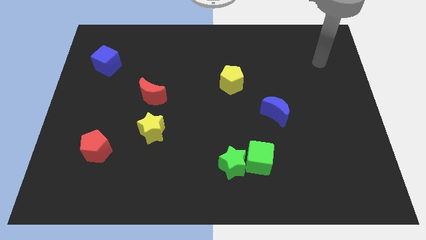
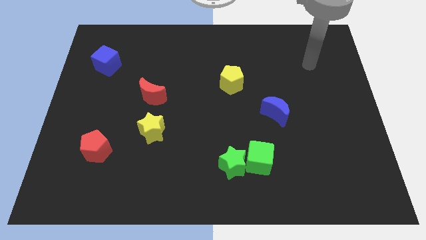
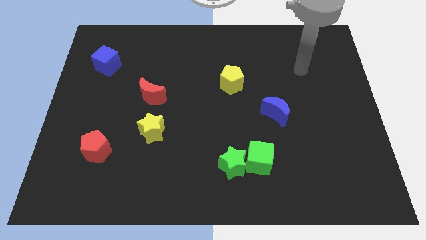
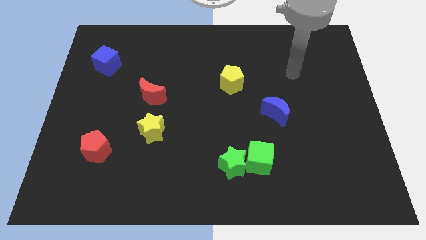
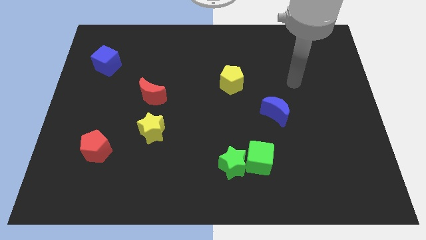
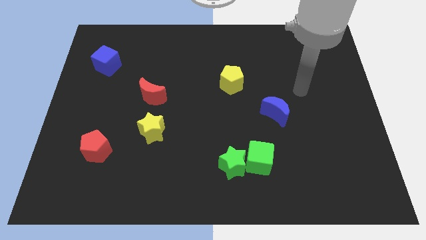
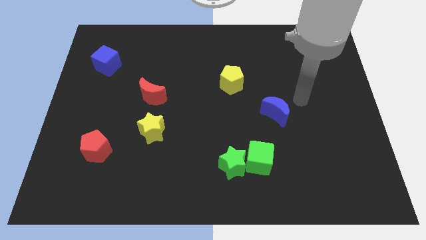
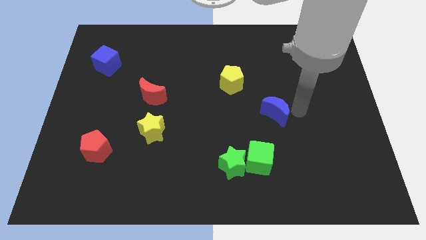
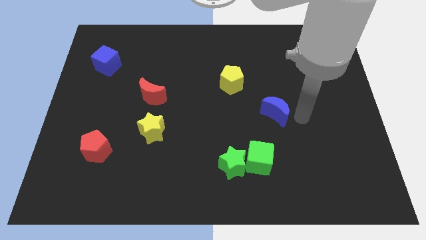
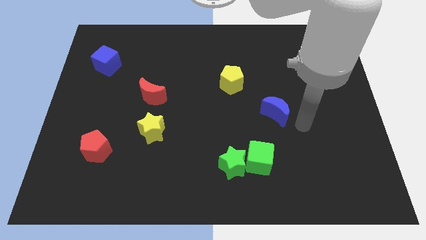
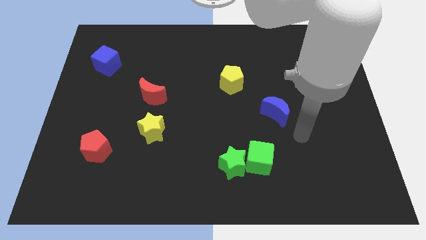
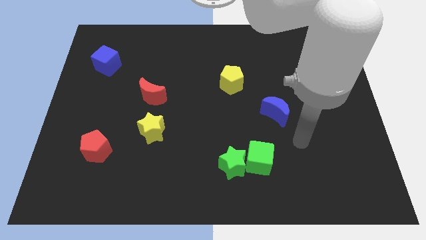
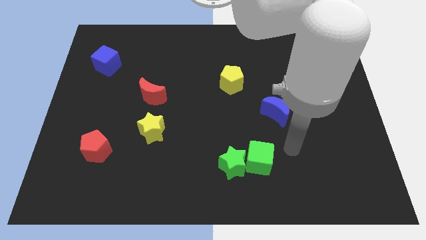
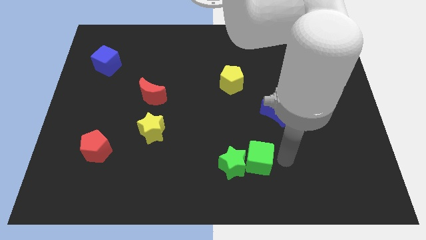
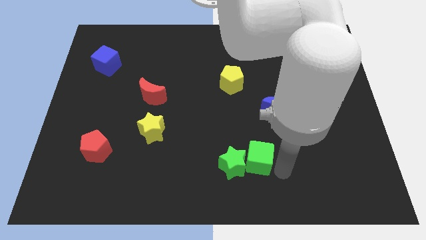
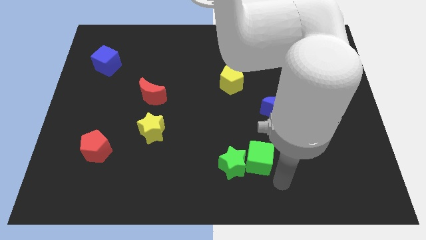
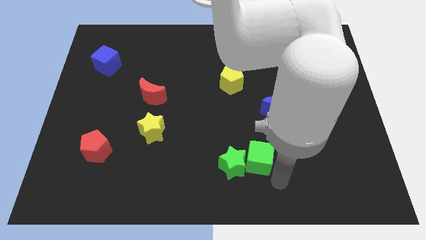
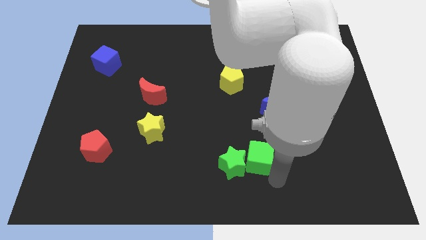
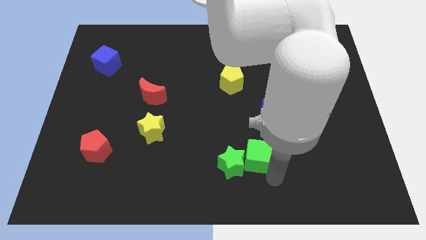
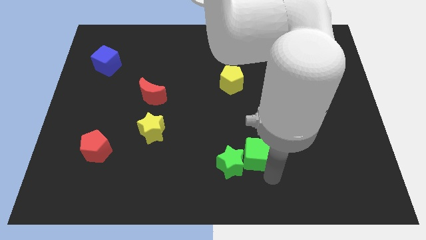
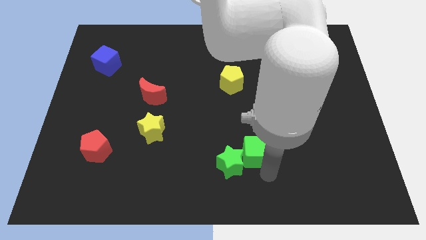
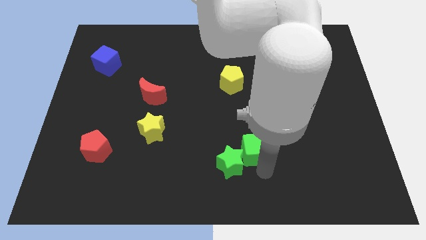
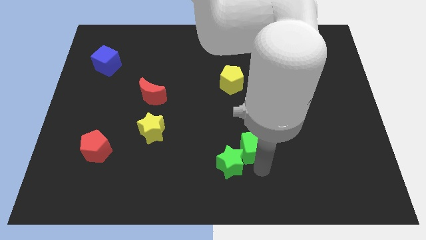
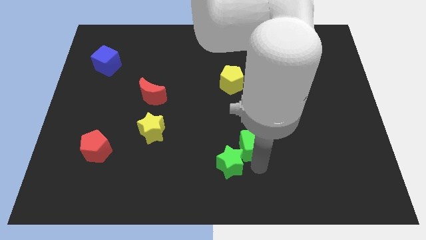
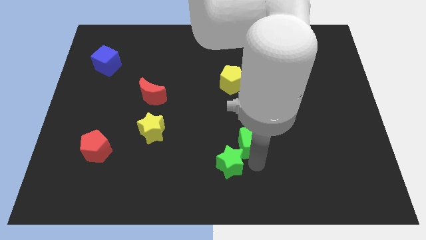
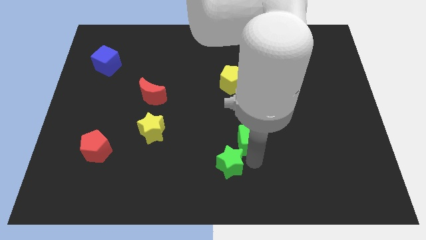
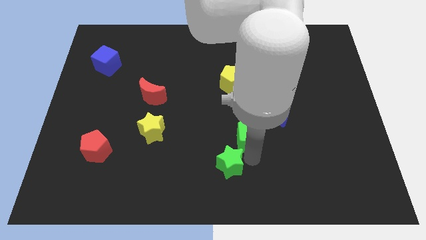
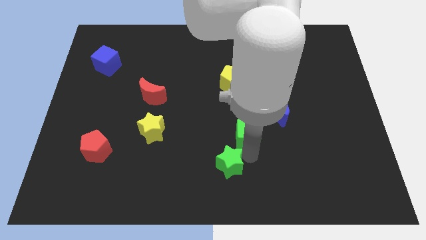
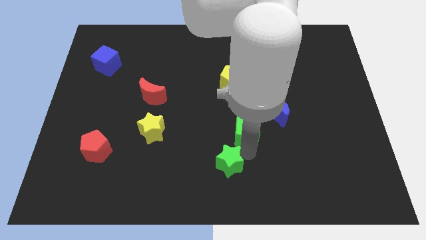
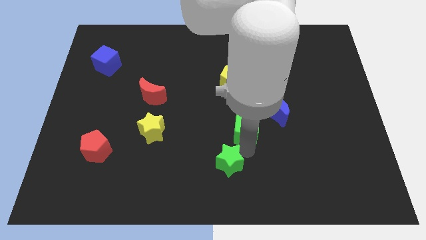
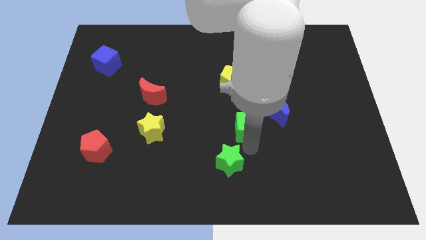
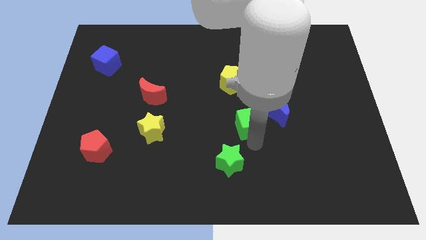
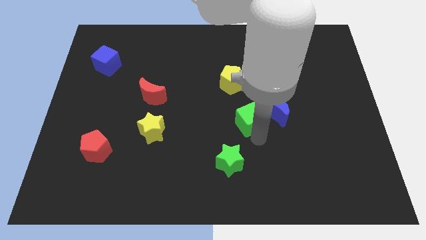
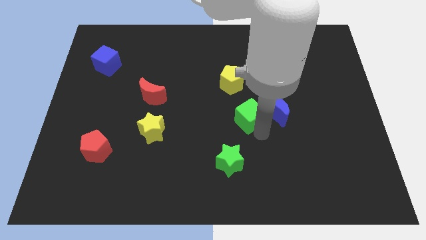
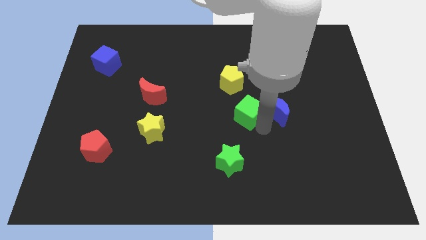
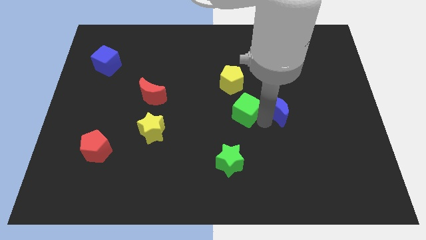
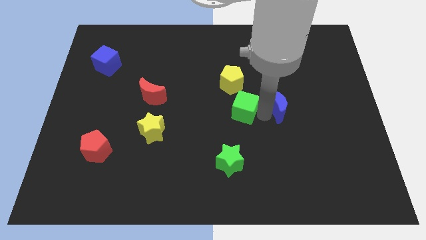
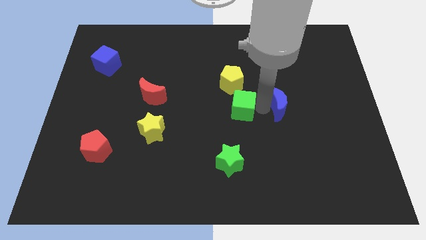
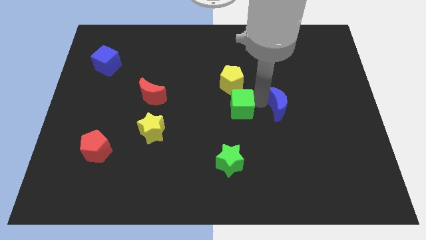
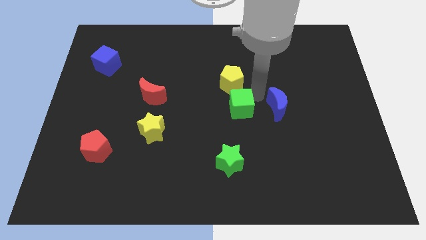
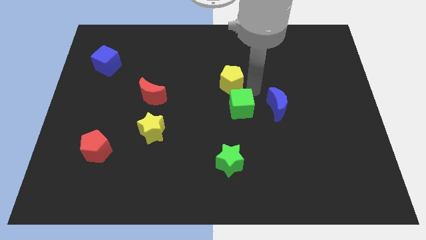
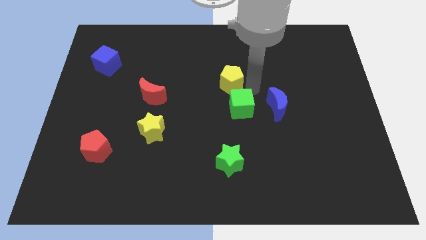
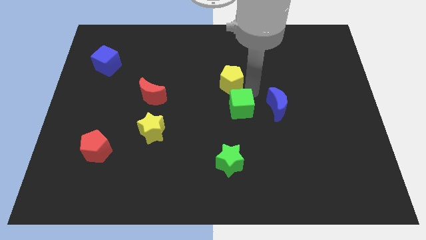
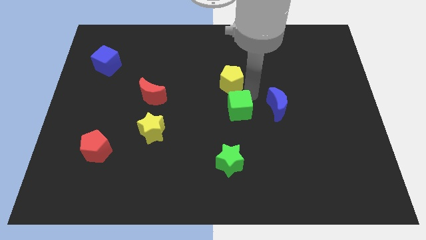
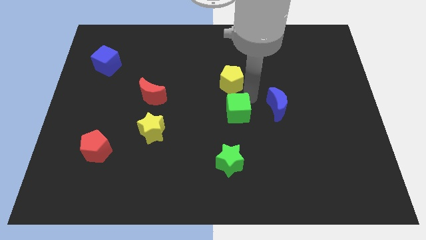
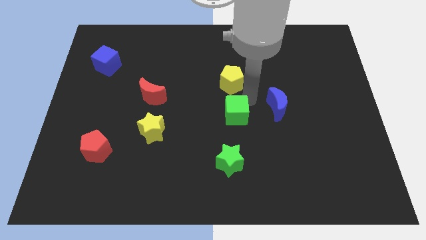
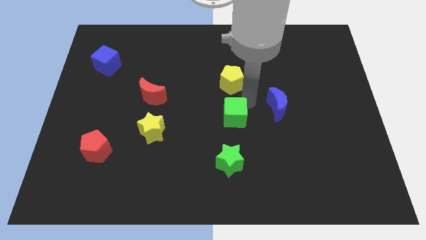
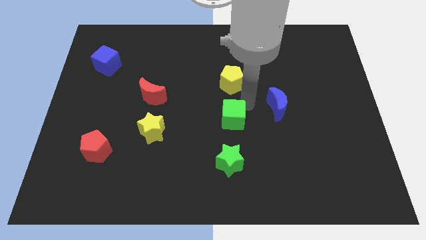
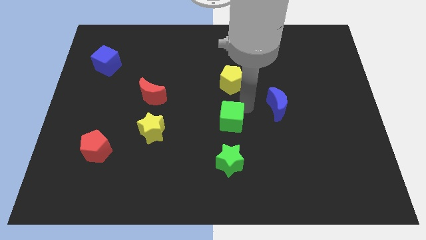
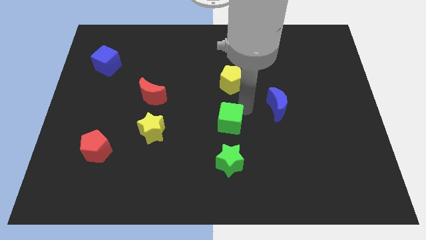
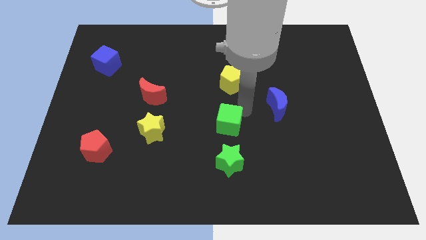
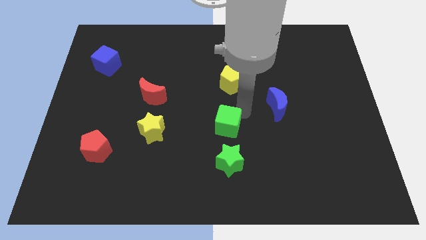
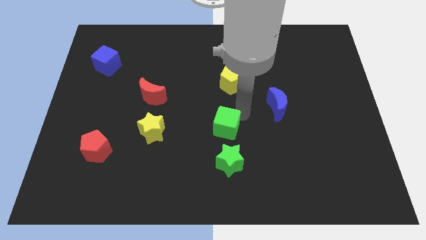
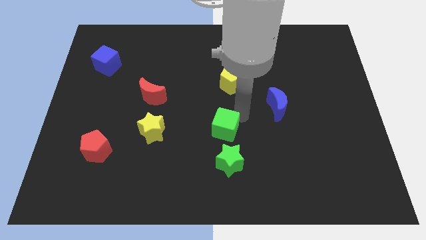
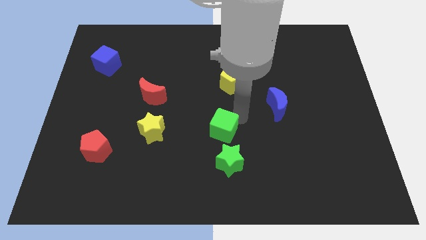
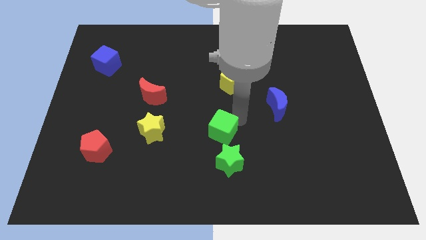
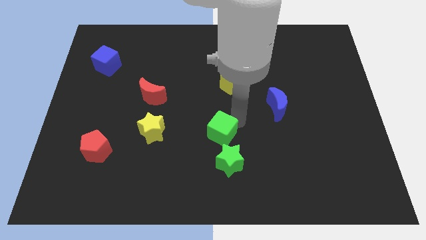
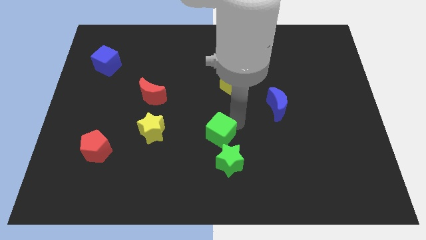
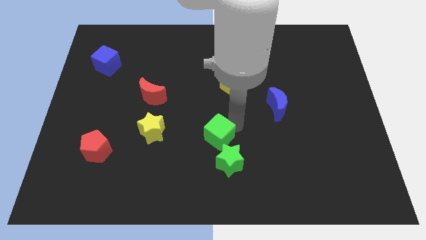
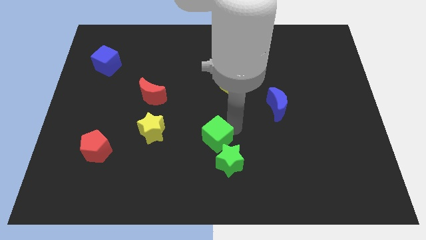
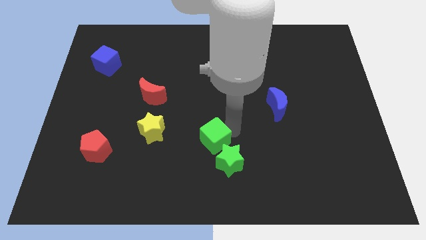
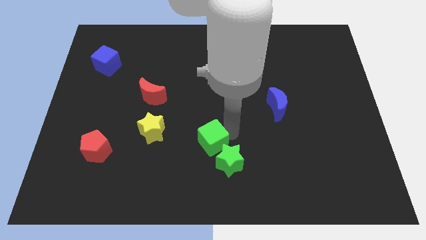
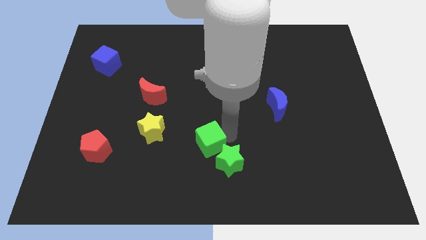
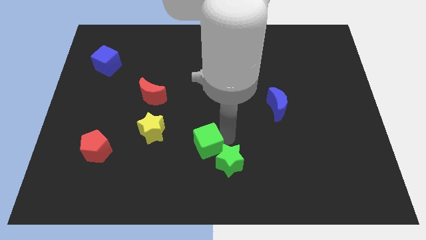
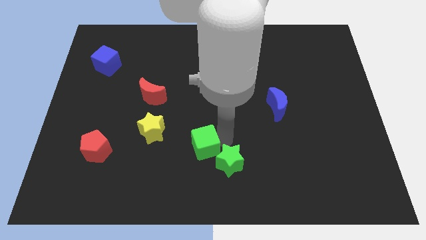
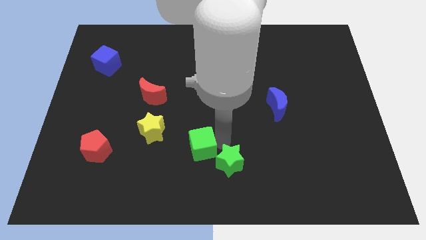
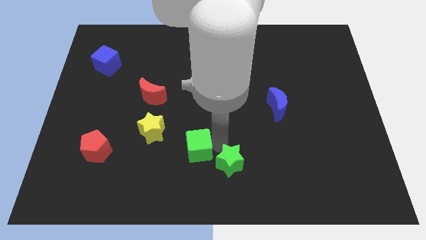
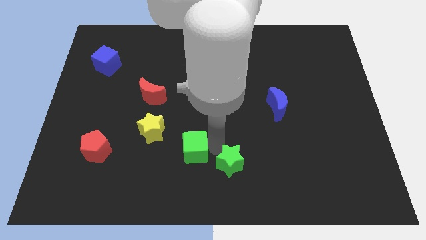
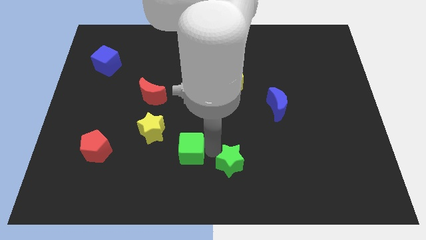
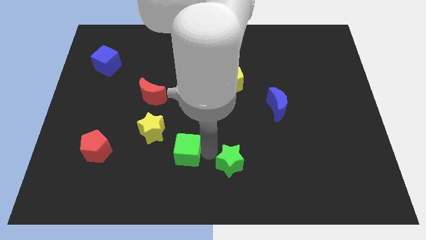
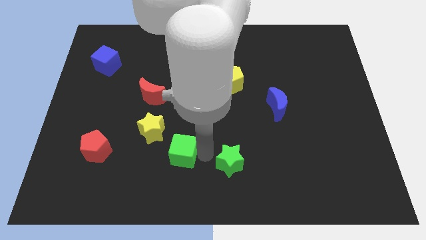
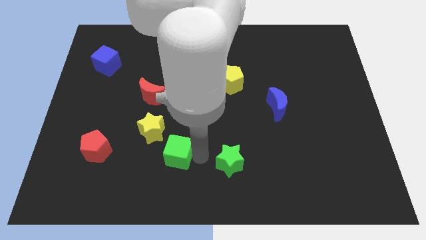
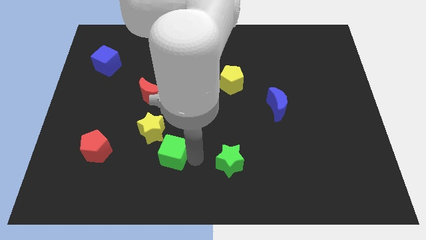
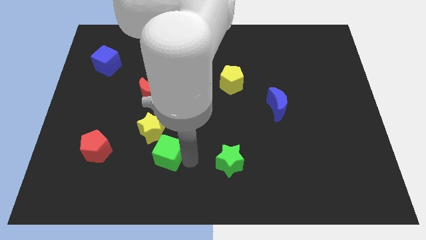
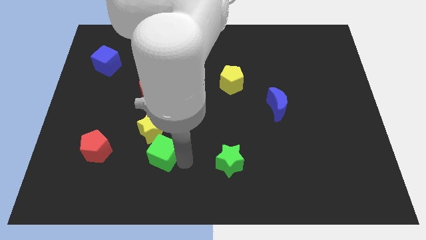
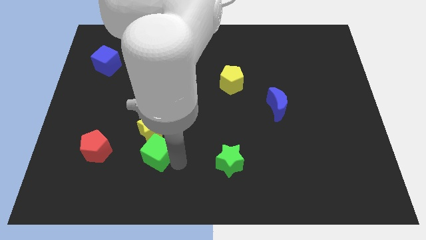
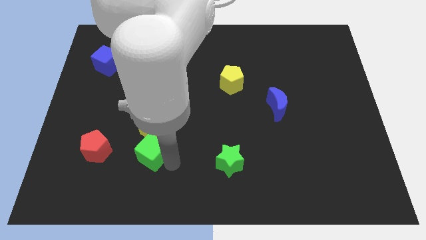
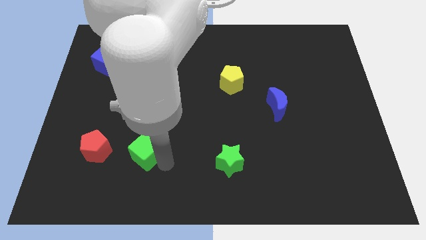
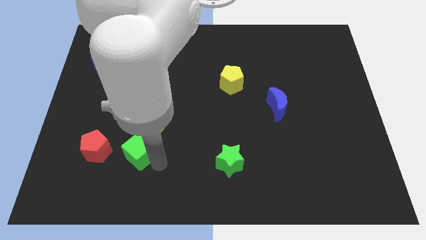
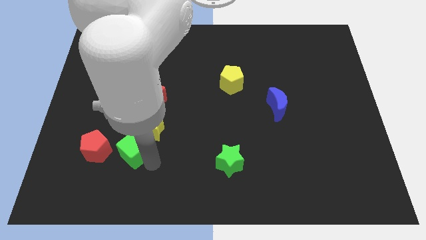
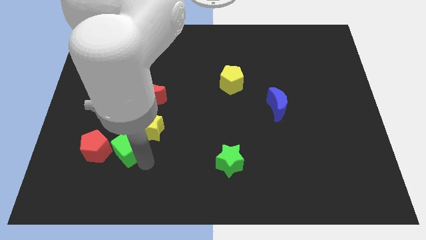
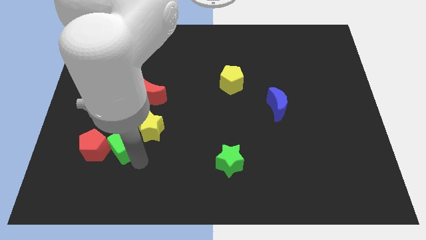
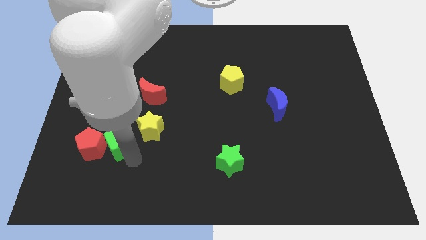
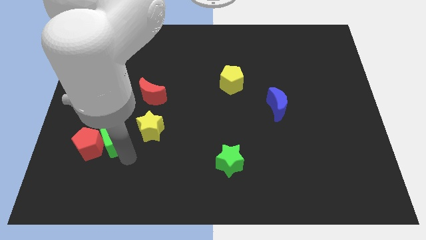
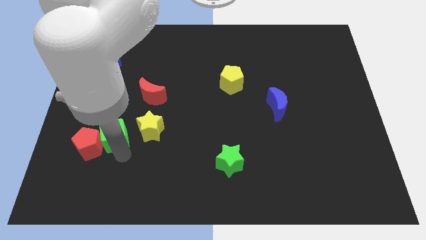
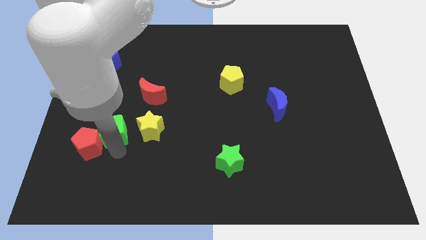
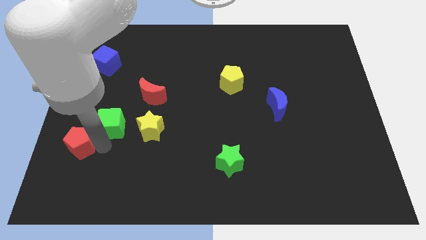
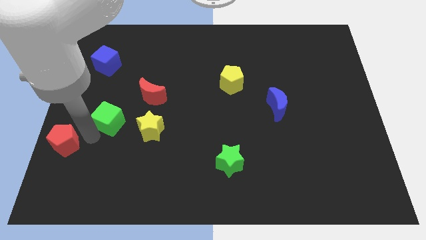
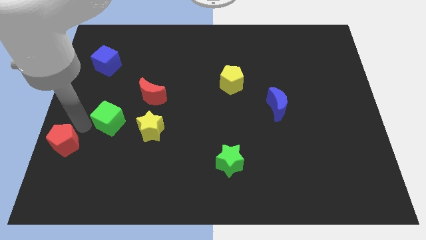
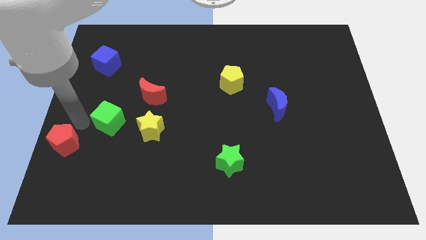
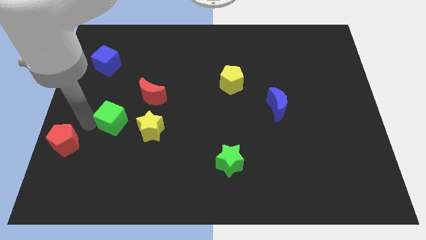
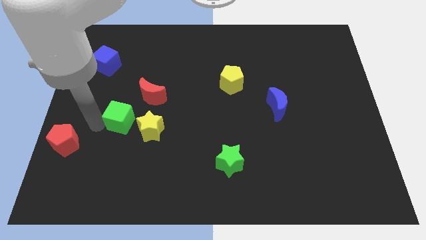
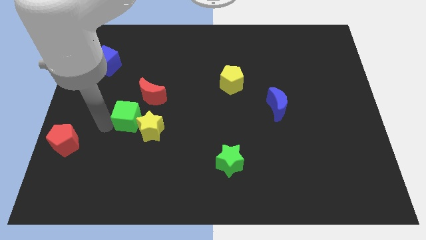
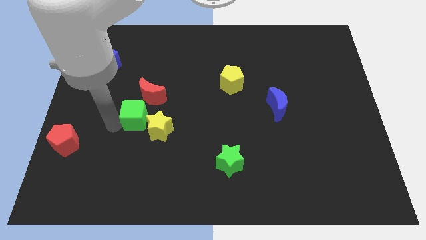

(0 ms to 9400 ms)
move the green cube upwards and left
